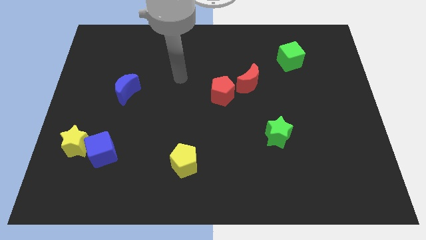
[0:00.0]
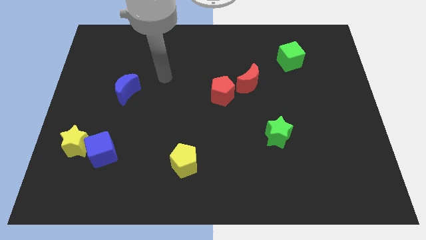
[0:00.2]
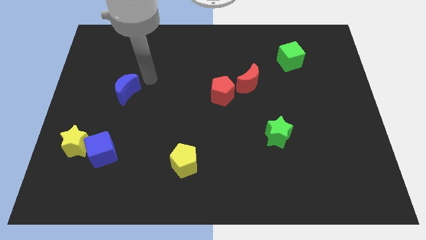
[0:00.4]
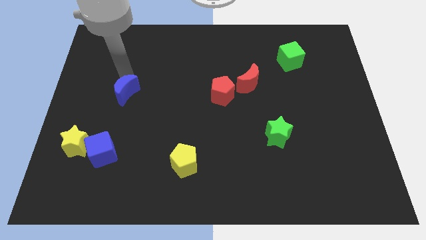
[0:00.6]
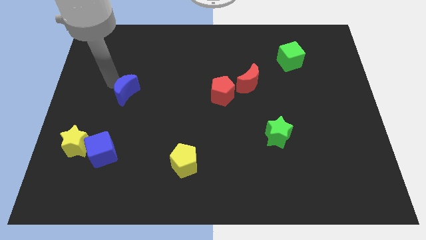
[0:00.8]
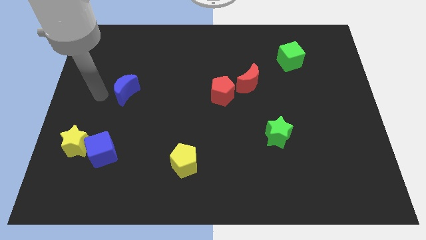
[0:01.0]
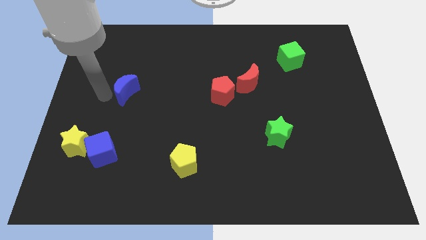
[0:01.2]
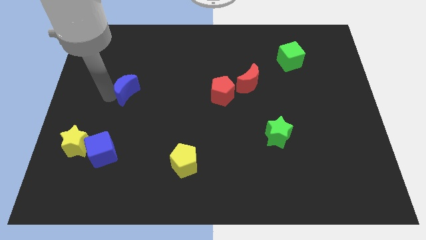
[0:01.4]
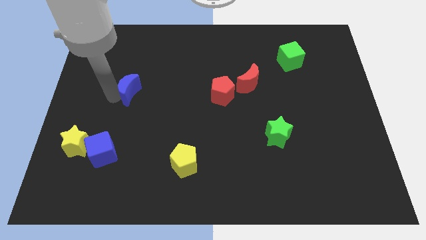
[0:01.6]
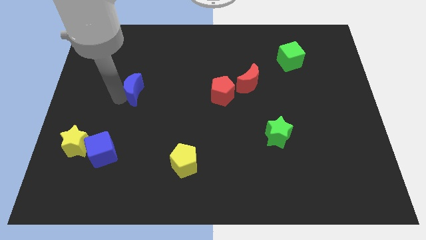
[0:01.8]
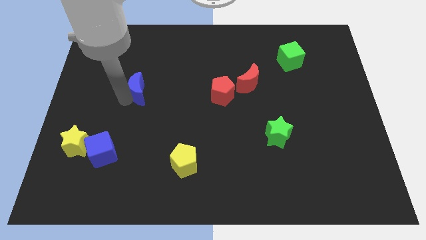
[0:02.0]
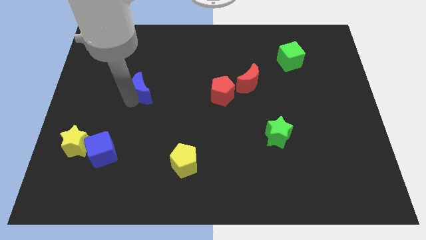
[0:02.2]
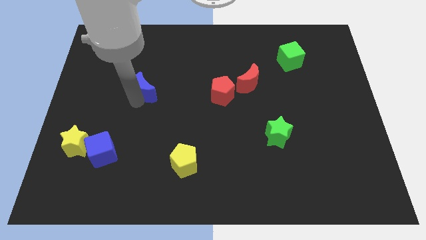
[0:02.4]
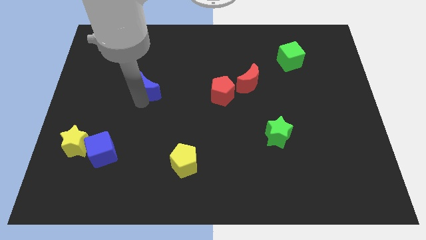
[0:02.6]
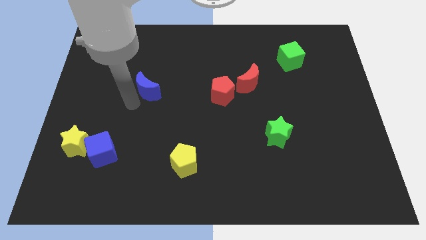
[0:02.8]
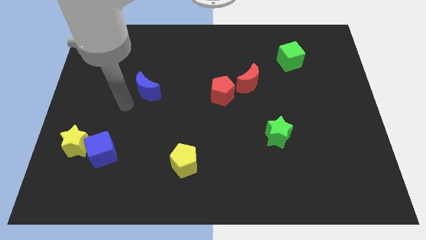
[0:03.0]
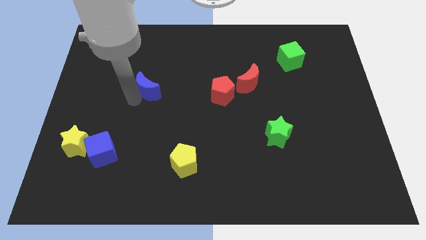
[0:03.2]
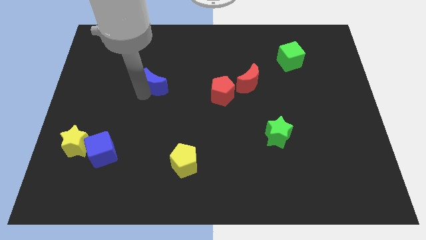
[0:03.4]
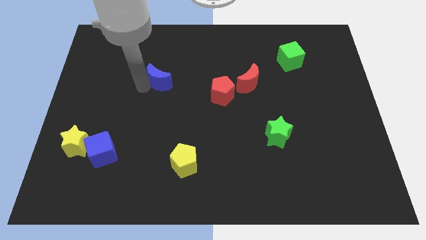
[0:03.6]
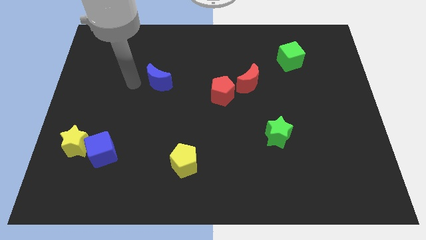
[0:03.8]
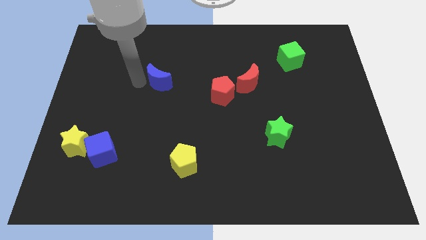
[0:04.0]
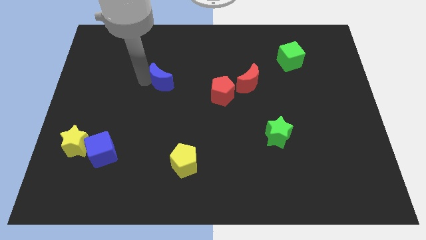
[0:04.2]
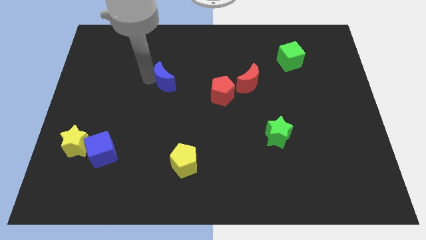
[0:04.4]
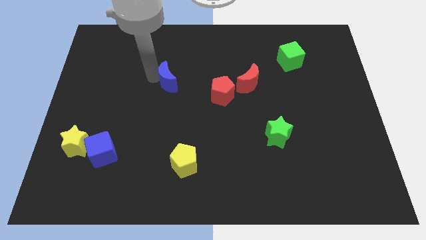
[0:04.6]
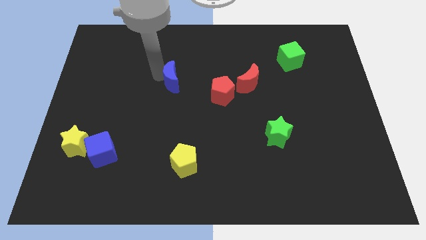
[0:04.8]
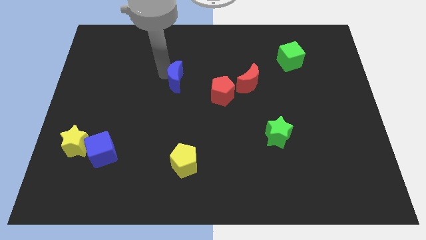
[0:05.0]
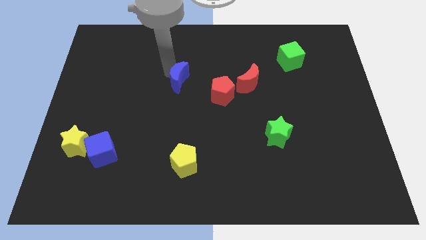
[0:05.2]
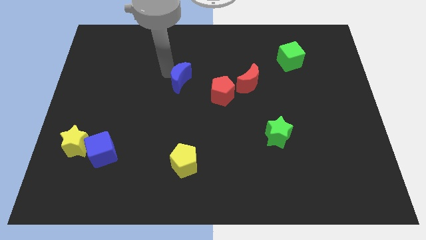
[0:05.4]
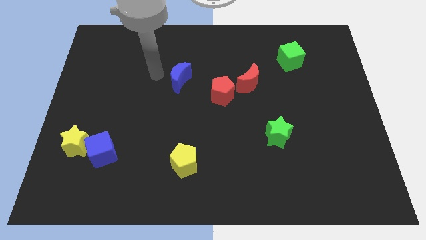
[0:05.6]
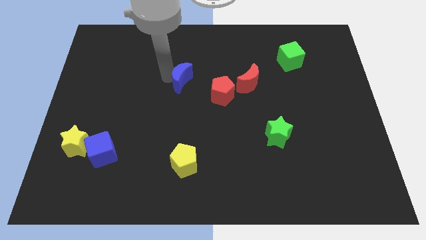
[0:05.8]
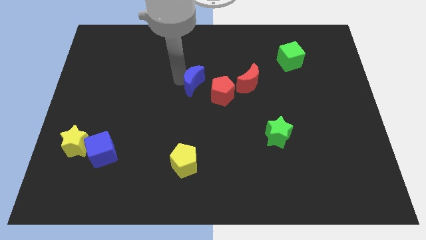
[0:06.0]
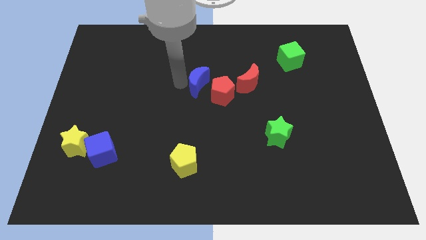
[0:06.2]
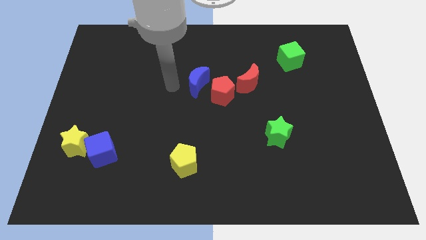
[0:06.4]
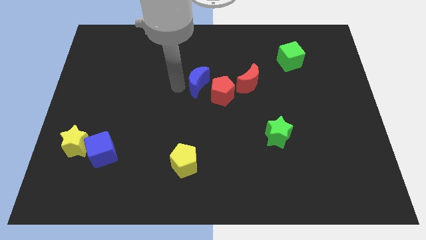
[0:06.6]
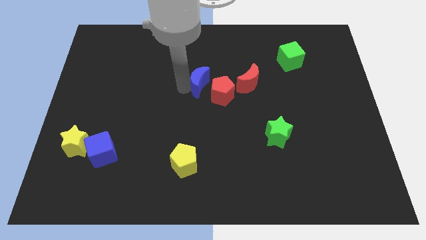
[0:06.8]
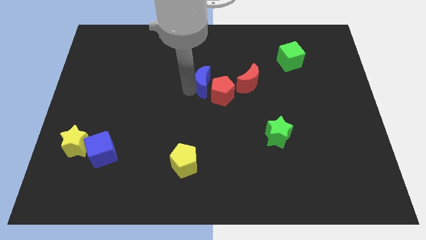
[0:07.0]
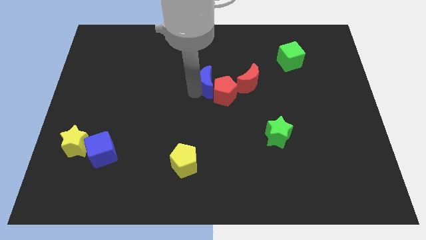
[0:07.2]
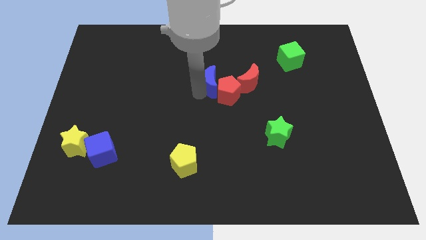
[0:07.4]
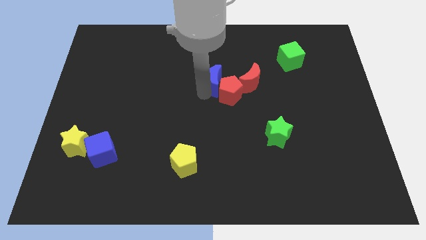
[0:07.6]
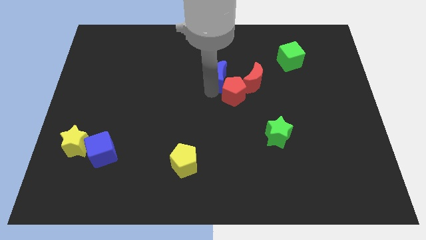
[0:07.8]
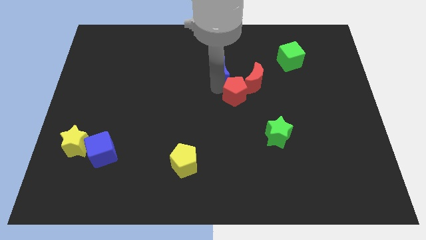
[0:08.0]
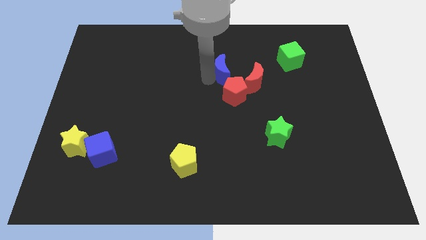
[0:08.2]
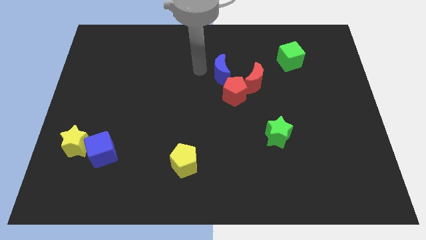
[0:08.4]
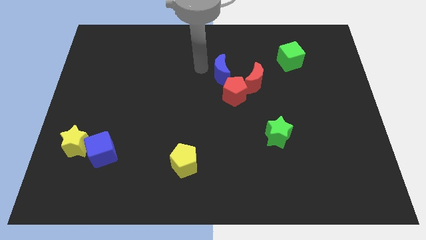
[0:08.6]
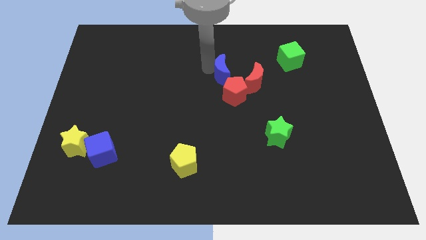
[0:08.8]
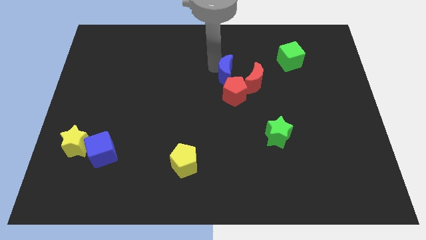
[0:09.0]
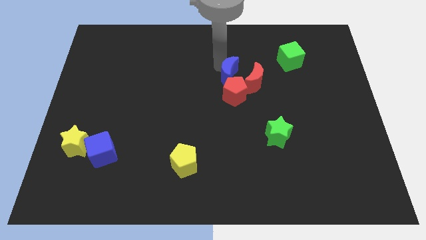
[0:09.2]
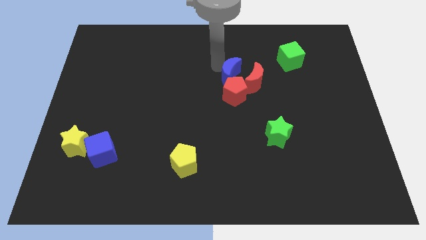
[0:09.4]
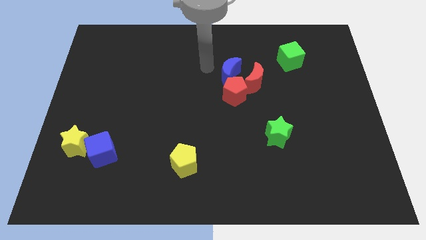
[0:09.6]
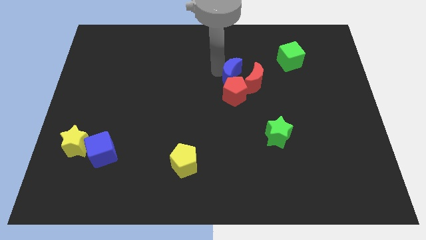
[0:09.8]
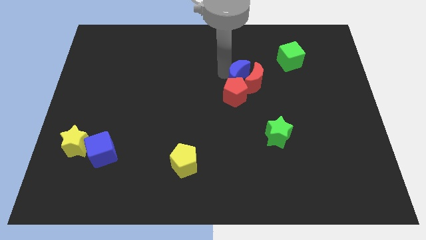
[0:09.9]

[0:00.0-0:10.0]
slide the blue moon close to the red moon

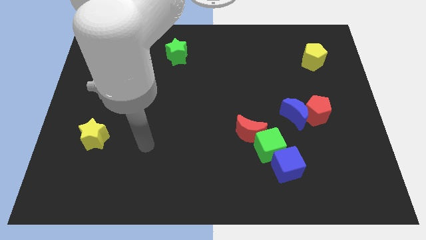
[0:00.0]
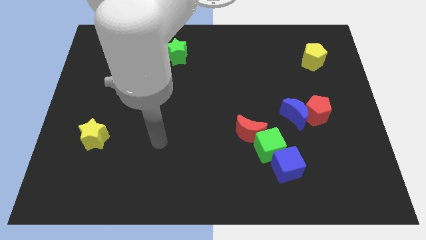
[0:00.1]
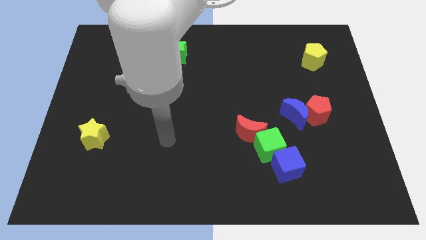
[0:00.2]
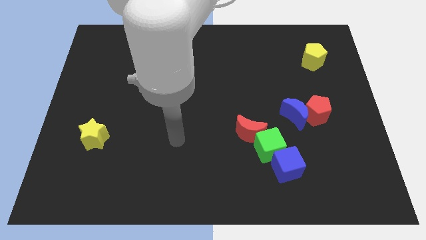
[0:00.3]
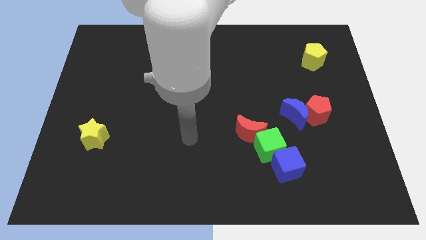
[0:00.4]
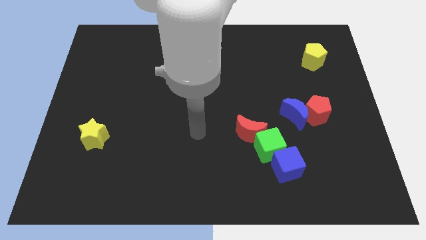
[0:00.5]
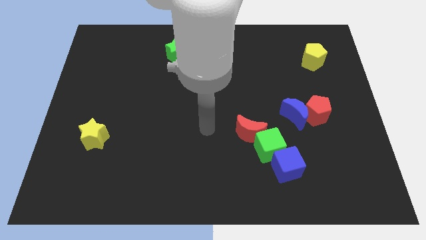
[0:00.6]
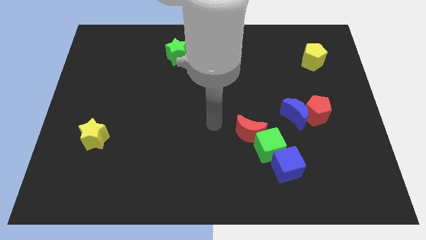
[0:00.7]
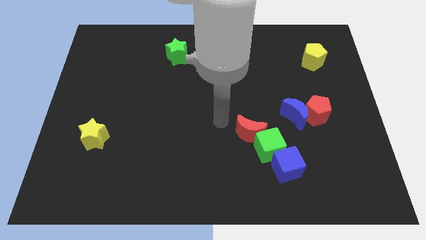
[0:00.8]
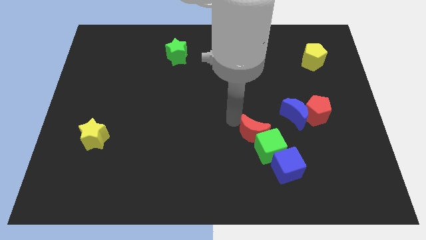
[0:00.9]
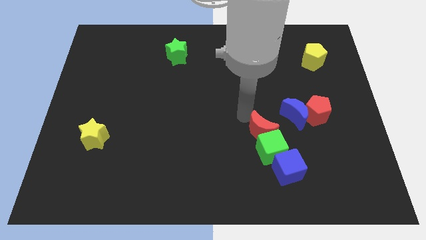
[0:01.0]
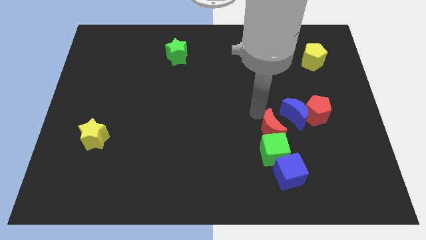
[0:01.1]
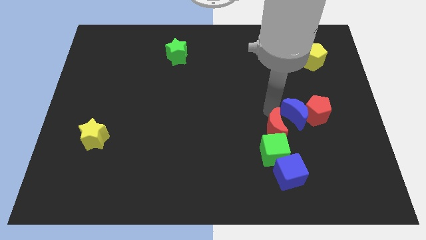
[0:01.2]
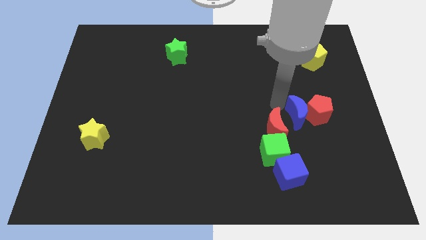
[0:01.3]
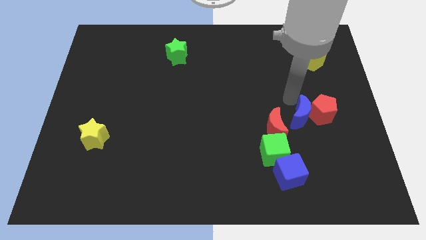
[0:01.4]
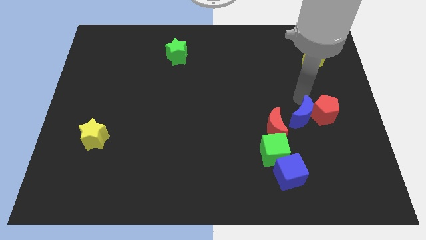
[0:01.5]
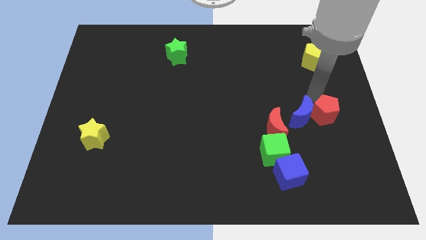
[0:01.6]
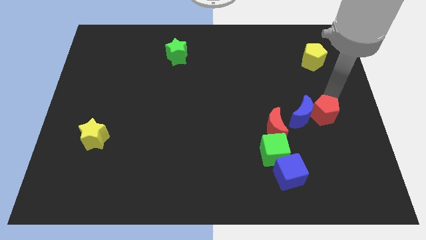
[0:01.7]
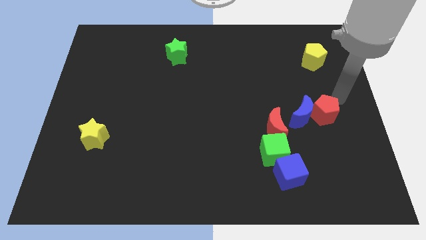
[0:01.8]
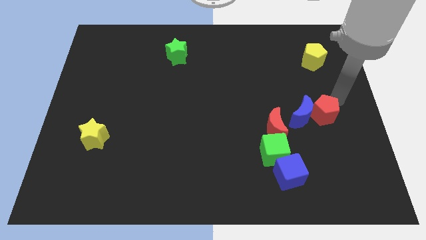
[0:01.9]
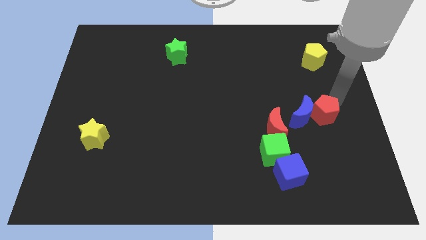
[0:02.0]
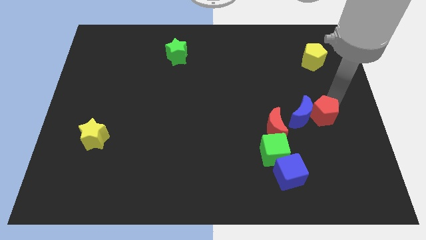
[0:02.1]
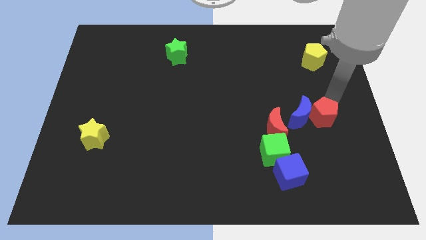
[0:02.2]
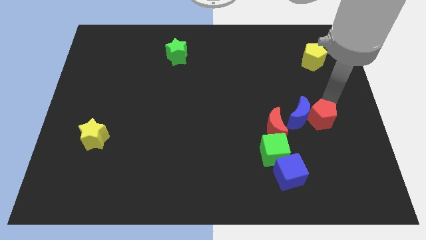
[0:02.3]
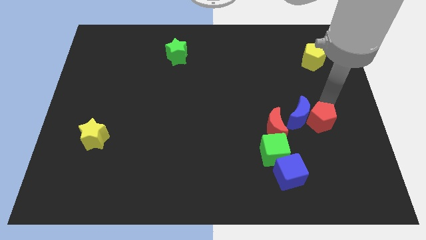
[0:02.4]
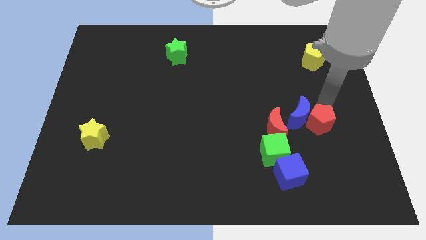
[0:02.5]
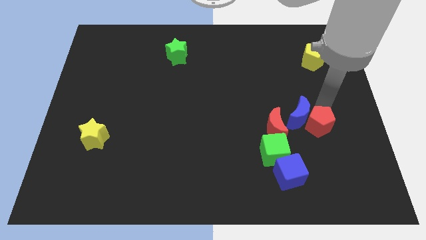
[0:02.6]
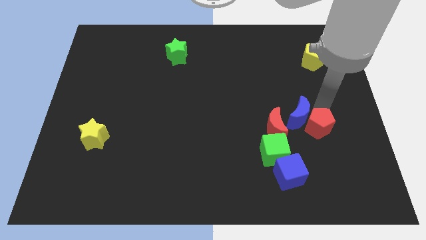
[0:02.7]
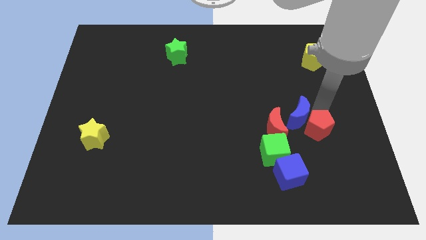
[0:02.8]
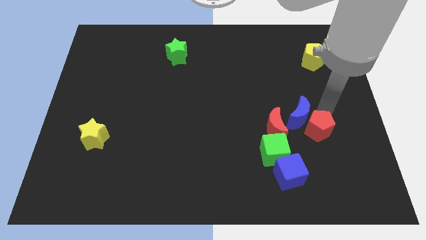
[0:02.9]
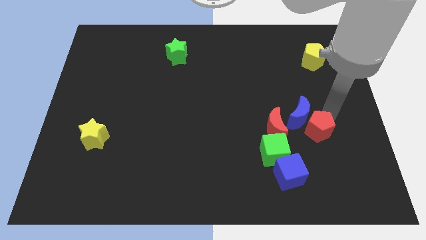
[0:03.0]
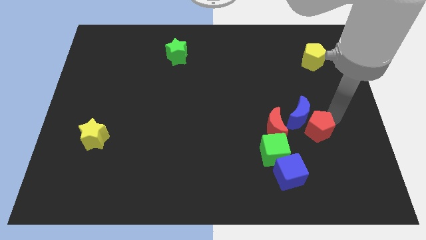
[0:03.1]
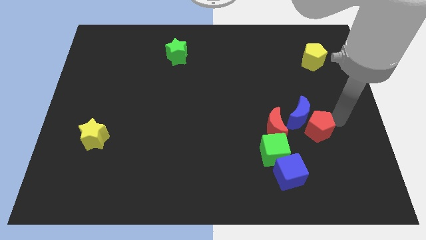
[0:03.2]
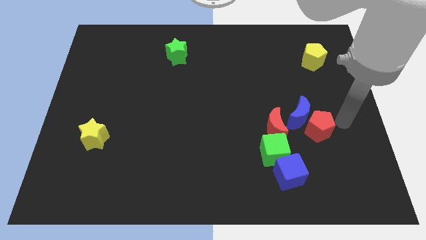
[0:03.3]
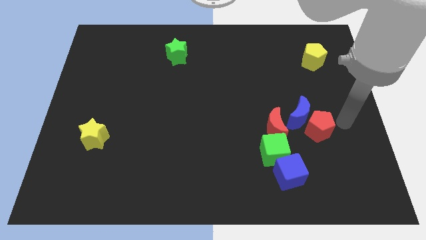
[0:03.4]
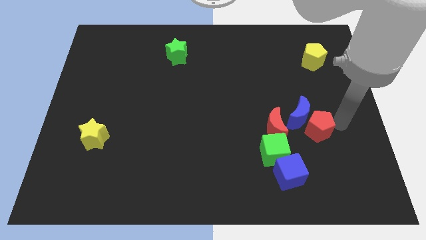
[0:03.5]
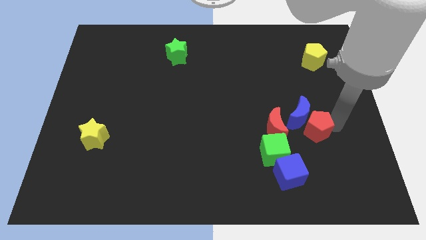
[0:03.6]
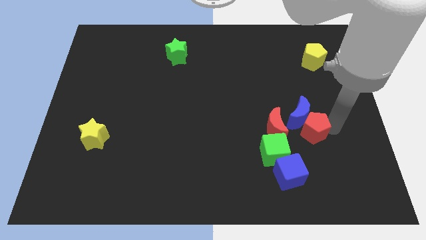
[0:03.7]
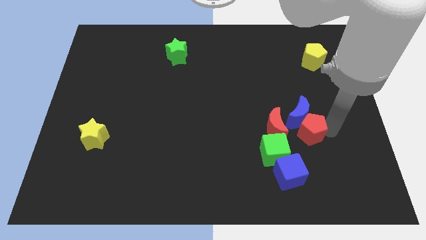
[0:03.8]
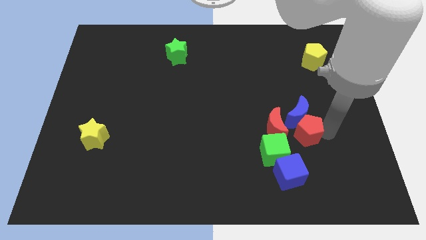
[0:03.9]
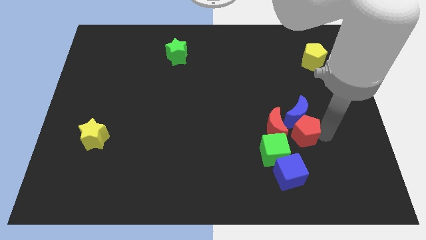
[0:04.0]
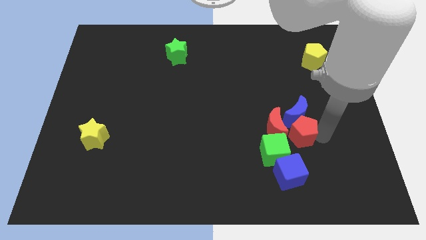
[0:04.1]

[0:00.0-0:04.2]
slide the red pentagon towards the red moon
